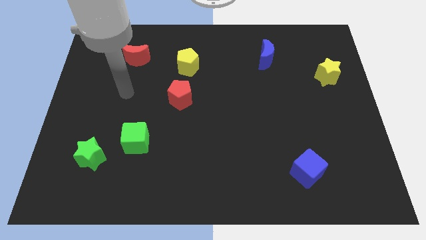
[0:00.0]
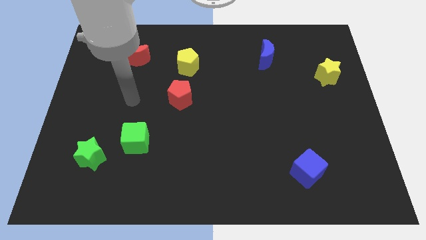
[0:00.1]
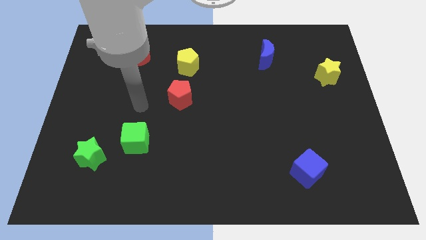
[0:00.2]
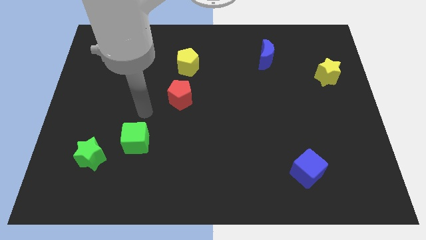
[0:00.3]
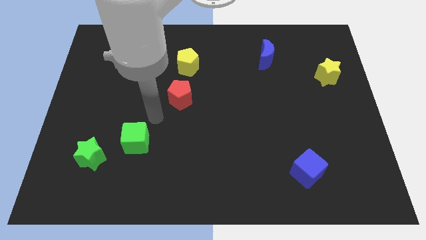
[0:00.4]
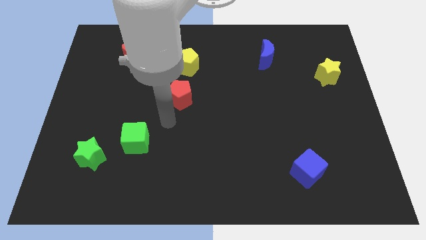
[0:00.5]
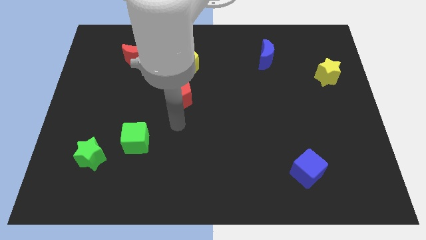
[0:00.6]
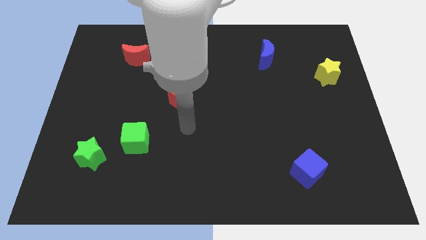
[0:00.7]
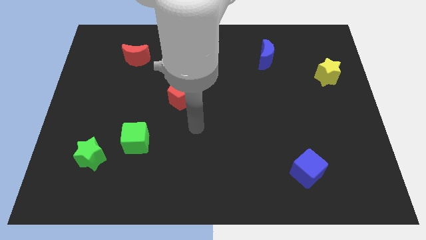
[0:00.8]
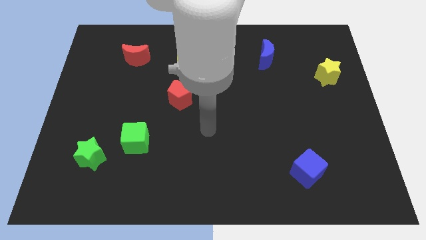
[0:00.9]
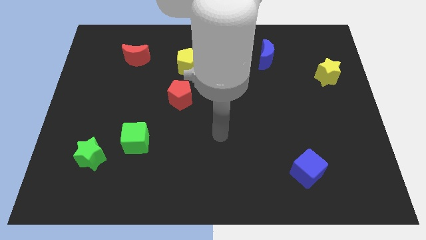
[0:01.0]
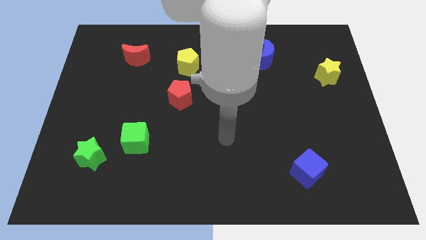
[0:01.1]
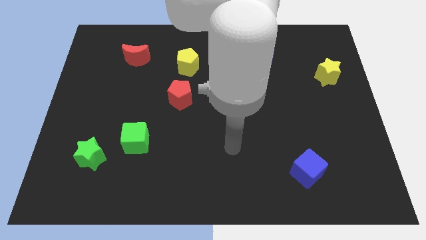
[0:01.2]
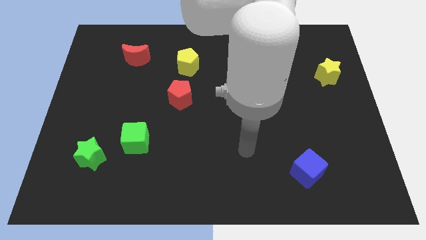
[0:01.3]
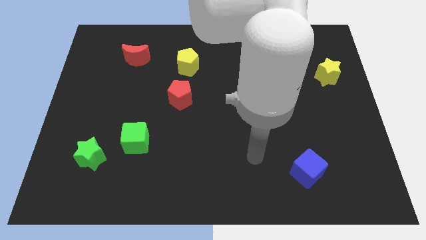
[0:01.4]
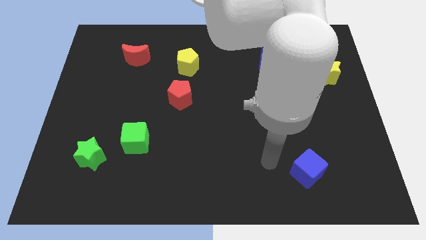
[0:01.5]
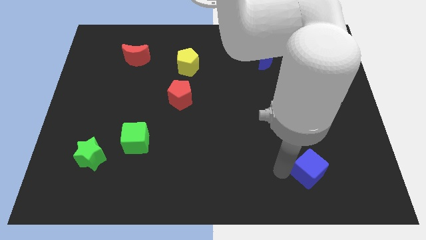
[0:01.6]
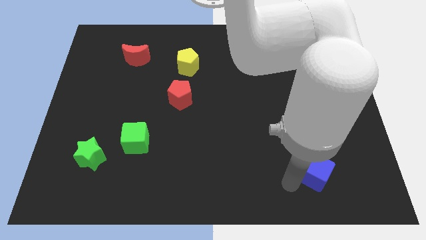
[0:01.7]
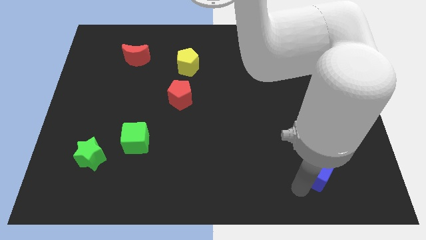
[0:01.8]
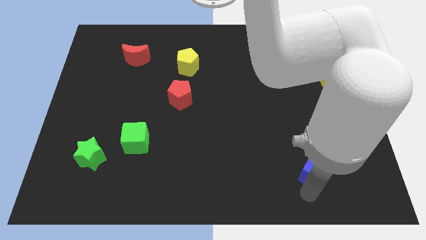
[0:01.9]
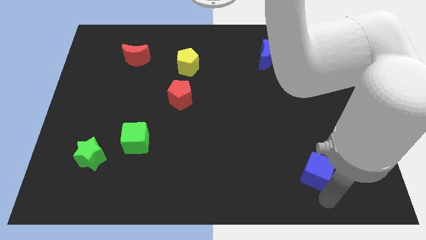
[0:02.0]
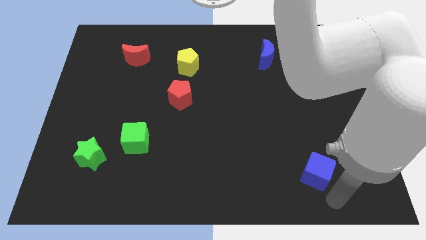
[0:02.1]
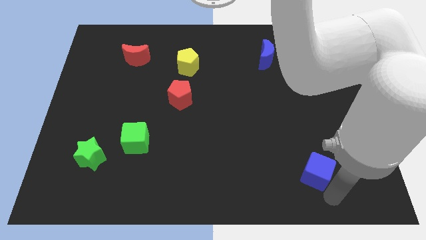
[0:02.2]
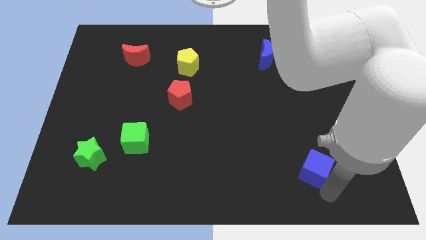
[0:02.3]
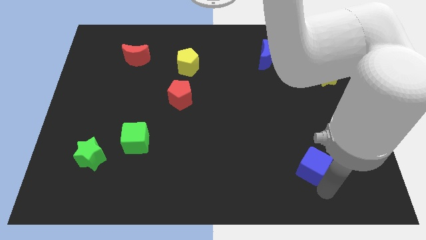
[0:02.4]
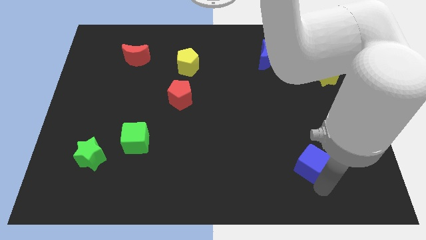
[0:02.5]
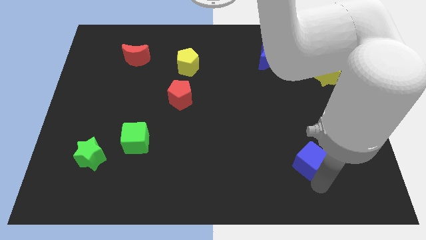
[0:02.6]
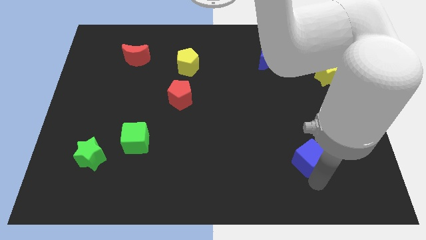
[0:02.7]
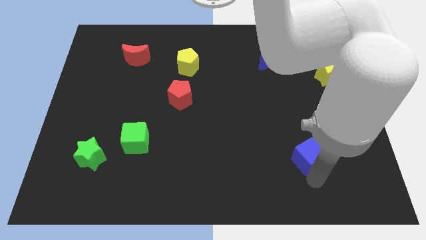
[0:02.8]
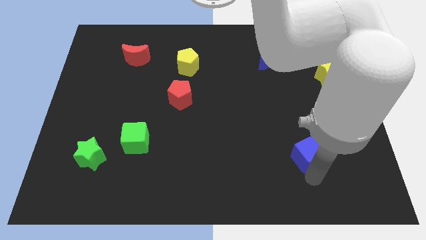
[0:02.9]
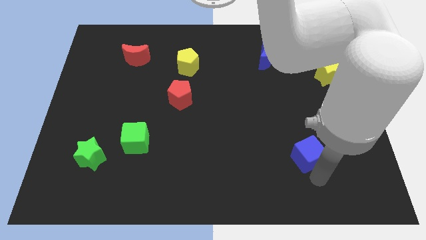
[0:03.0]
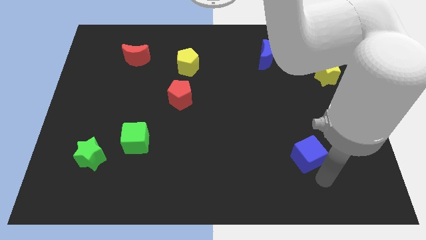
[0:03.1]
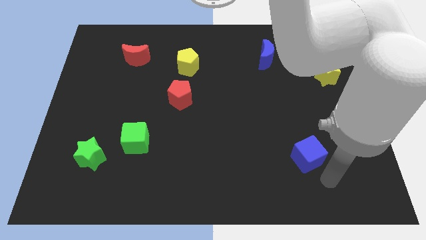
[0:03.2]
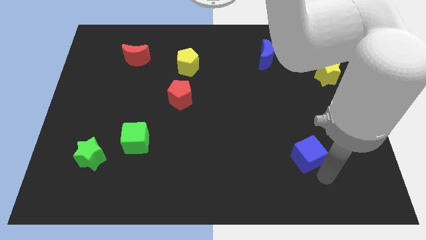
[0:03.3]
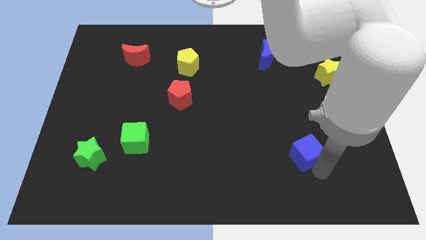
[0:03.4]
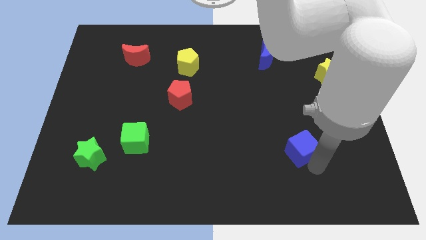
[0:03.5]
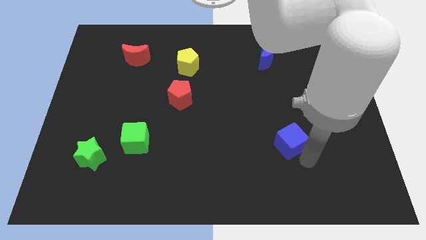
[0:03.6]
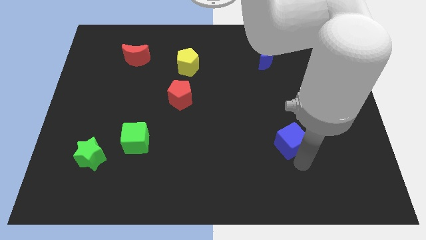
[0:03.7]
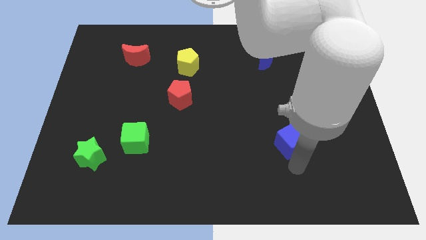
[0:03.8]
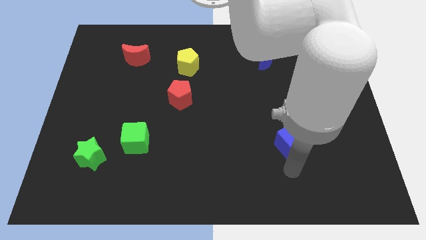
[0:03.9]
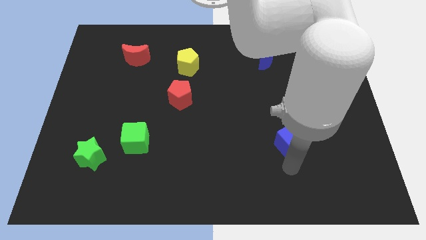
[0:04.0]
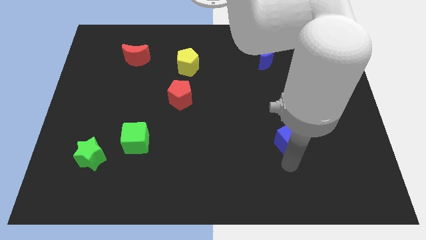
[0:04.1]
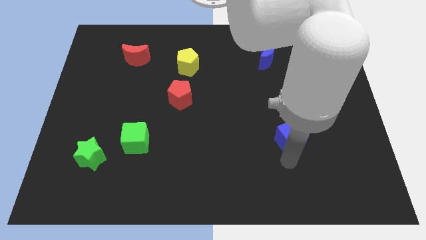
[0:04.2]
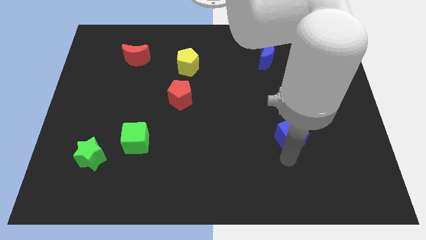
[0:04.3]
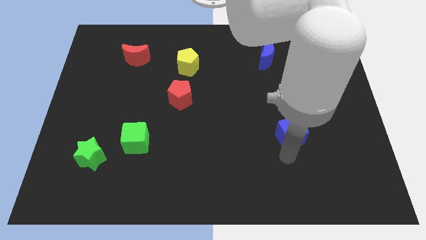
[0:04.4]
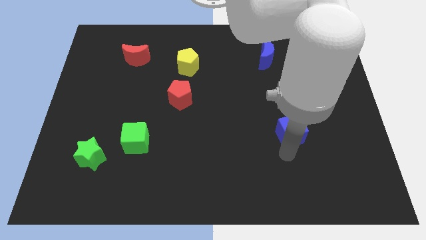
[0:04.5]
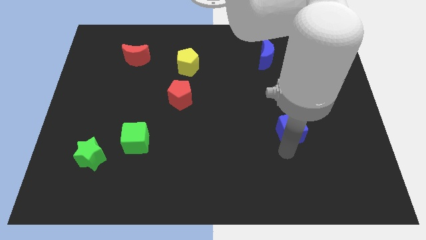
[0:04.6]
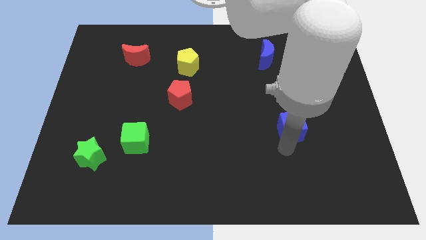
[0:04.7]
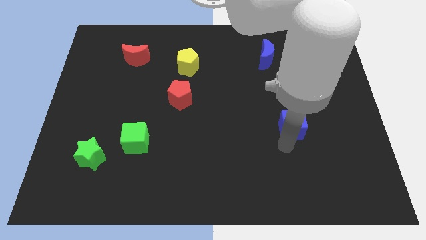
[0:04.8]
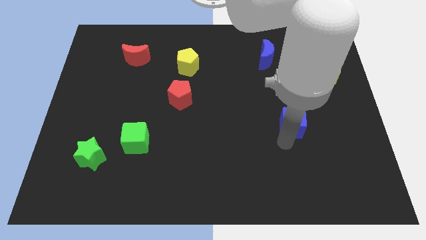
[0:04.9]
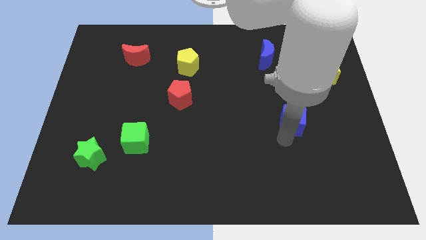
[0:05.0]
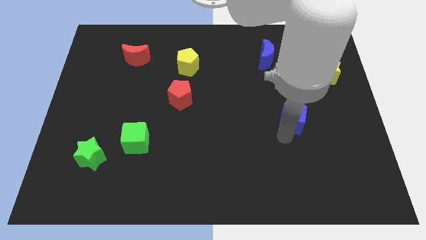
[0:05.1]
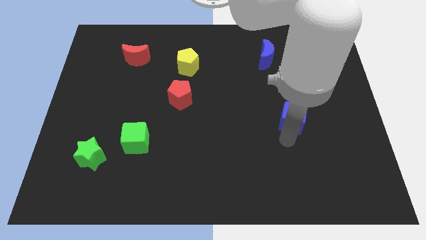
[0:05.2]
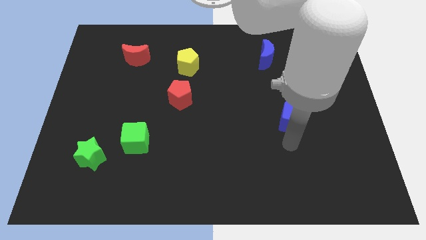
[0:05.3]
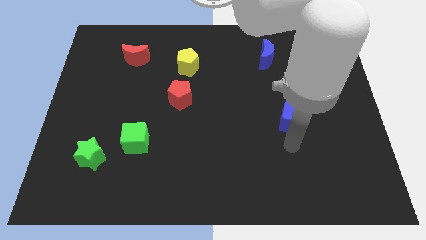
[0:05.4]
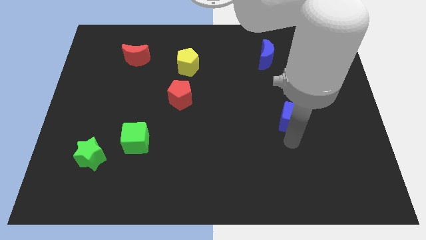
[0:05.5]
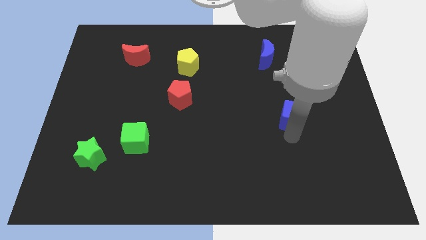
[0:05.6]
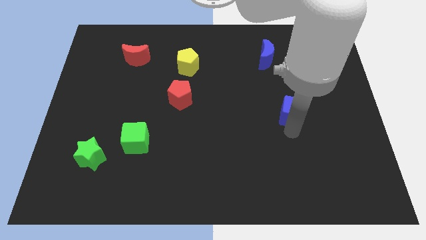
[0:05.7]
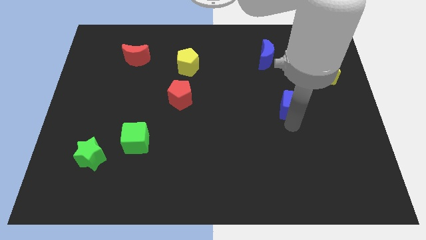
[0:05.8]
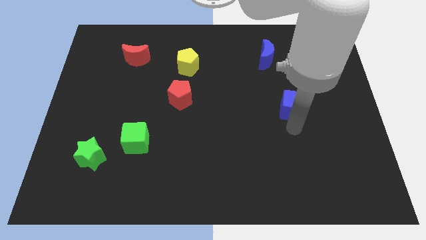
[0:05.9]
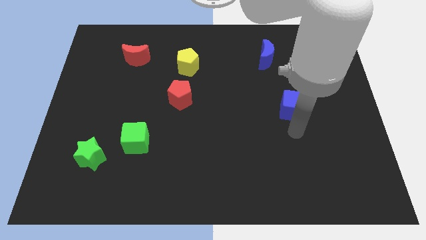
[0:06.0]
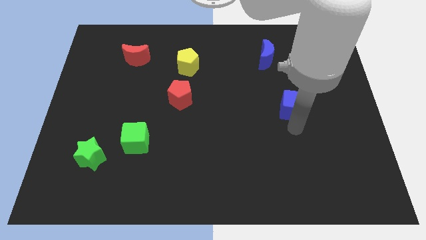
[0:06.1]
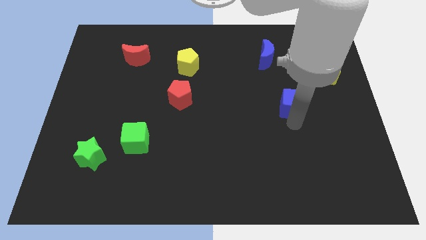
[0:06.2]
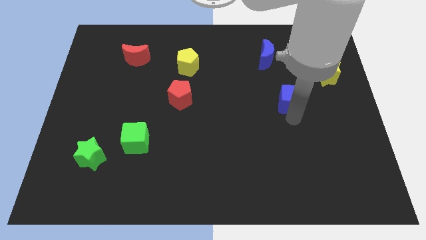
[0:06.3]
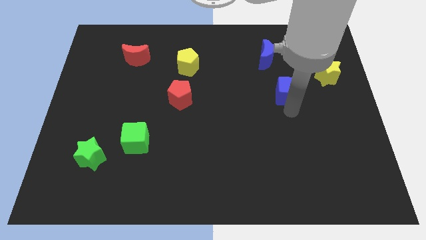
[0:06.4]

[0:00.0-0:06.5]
push the blue cube up

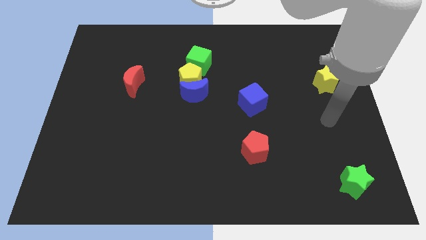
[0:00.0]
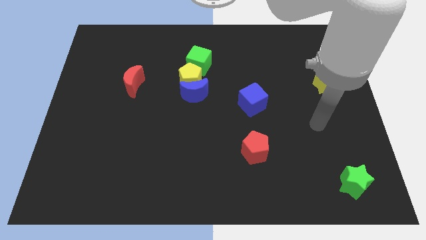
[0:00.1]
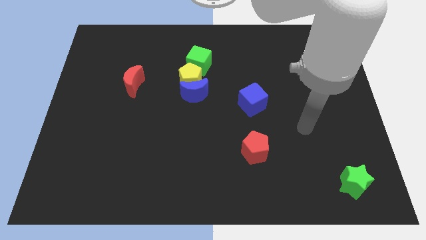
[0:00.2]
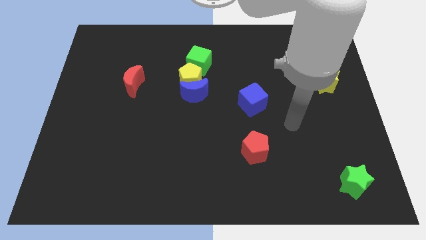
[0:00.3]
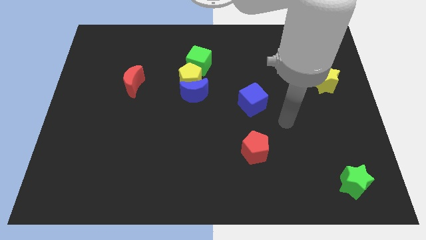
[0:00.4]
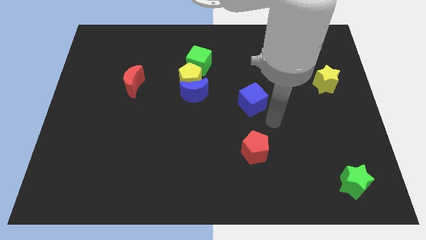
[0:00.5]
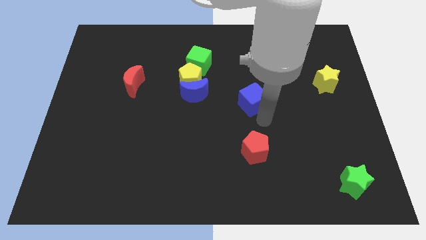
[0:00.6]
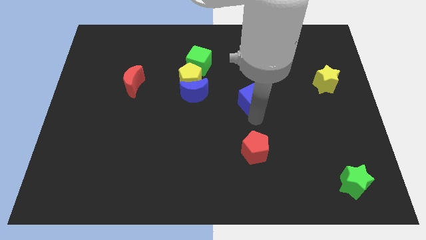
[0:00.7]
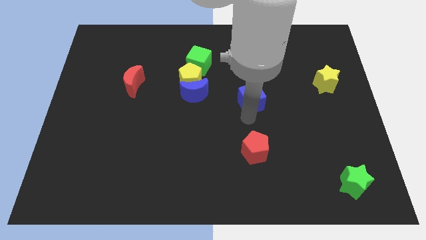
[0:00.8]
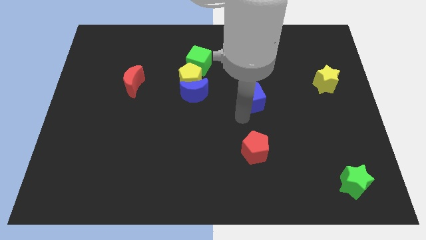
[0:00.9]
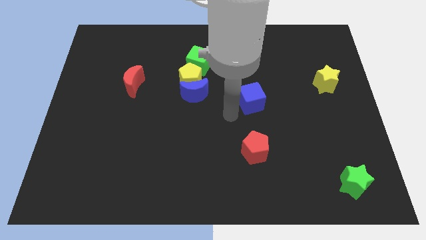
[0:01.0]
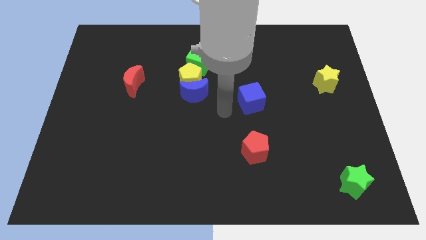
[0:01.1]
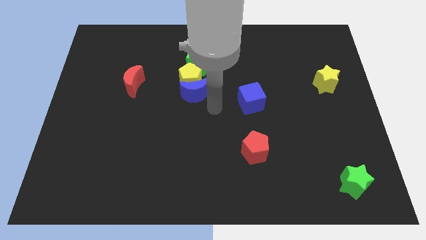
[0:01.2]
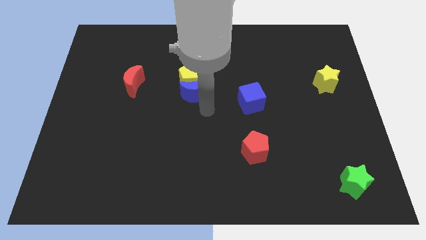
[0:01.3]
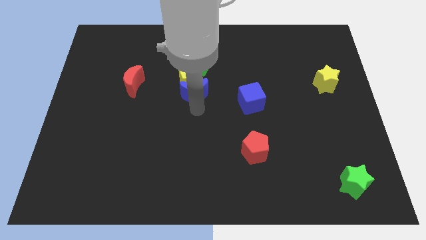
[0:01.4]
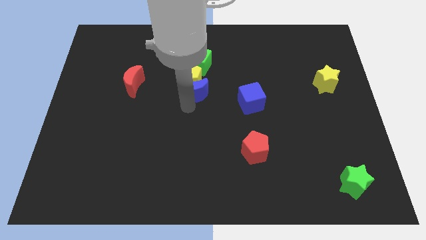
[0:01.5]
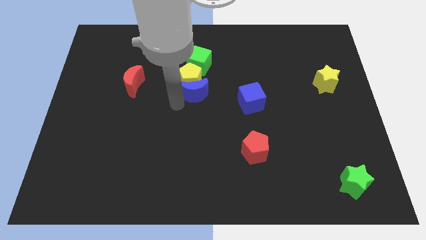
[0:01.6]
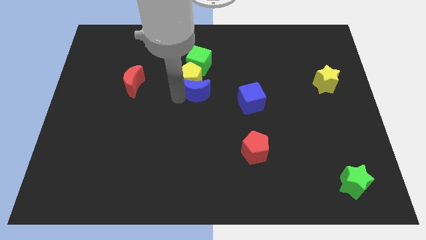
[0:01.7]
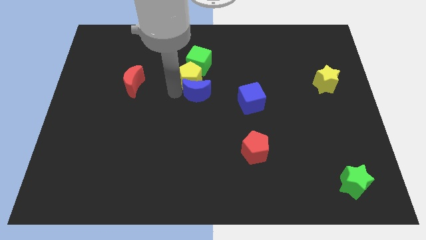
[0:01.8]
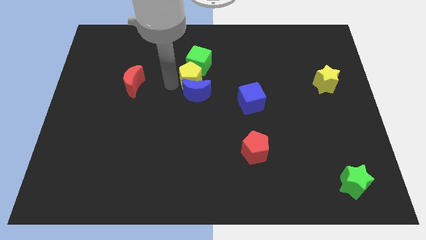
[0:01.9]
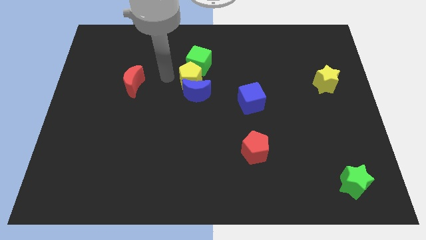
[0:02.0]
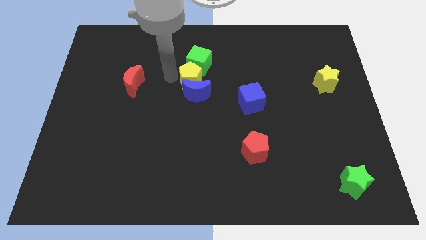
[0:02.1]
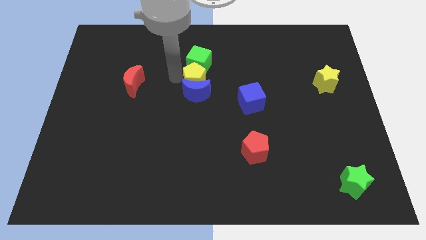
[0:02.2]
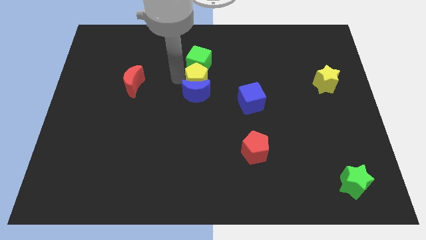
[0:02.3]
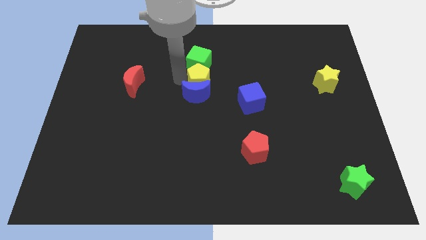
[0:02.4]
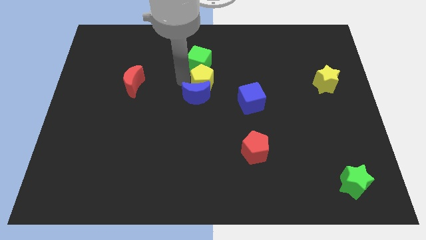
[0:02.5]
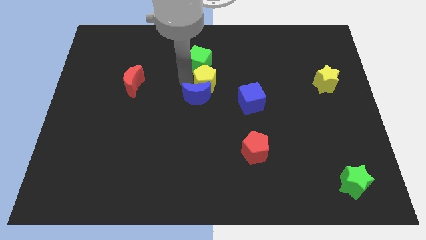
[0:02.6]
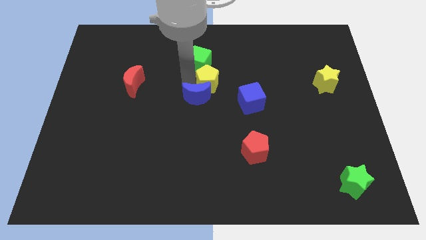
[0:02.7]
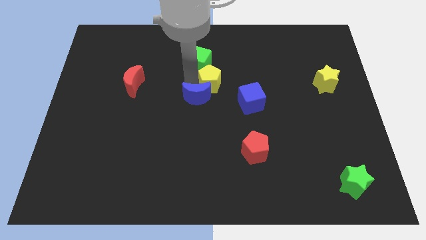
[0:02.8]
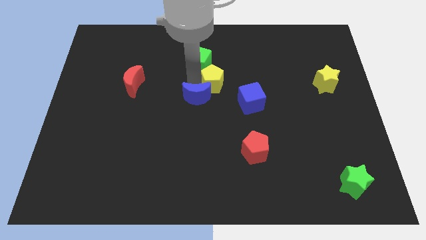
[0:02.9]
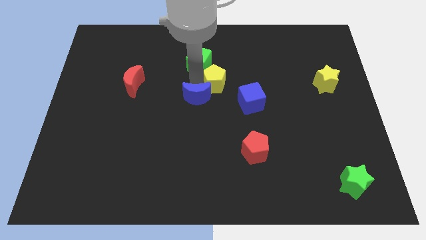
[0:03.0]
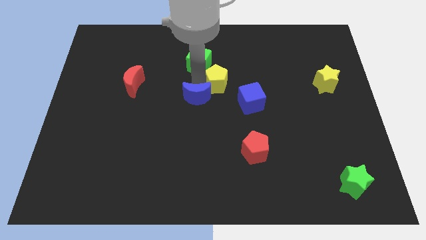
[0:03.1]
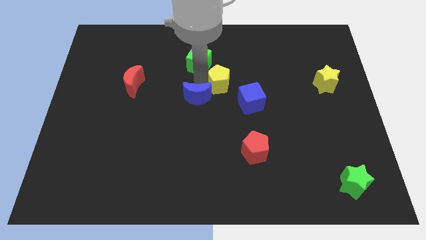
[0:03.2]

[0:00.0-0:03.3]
slide the yellow pentagon right a bit
